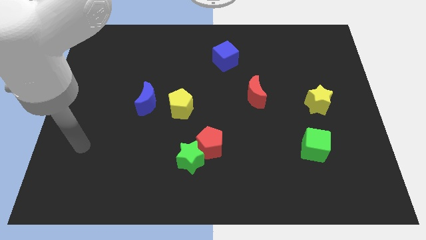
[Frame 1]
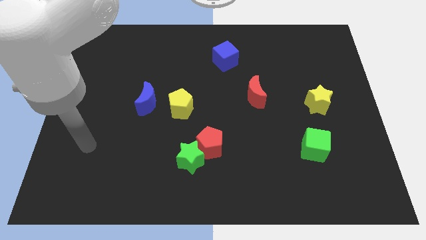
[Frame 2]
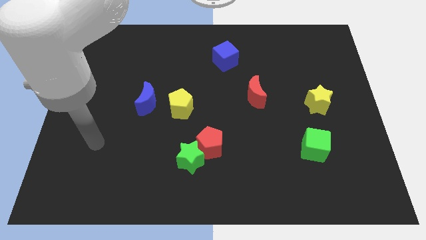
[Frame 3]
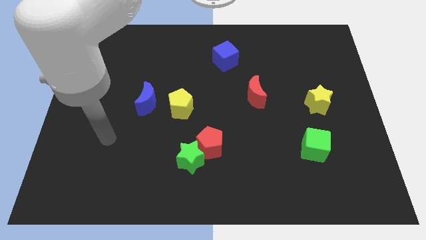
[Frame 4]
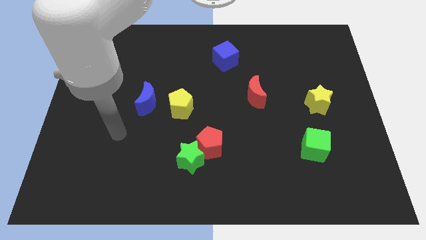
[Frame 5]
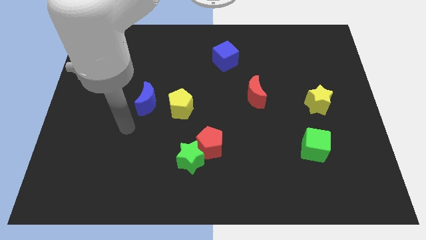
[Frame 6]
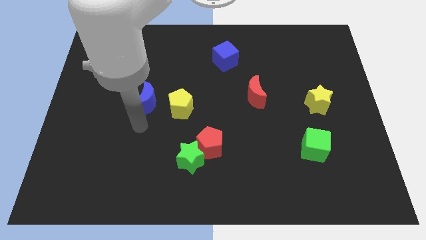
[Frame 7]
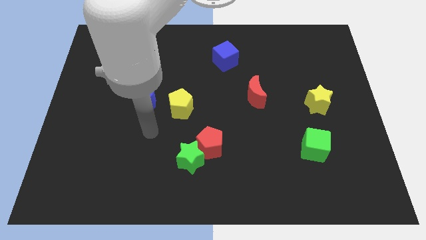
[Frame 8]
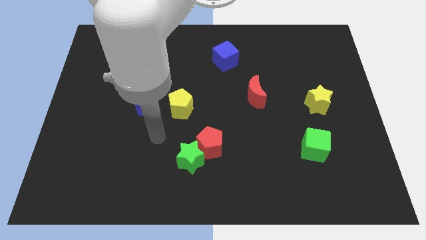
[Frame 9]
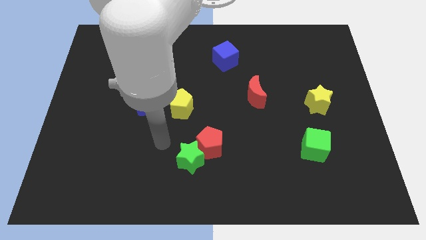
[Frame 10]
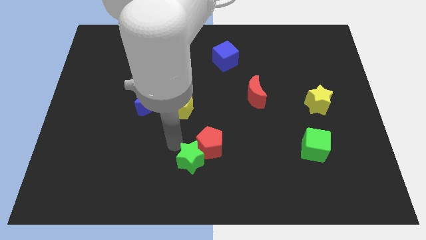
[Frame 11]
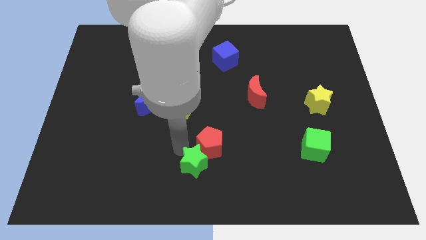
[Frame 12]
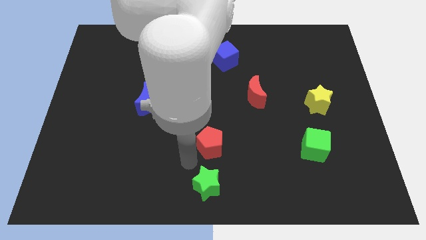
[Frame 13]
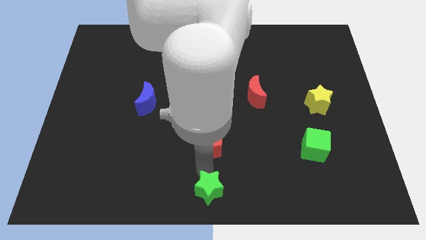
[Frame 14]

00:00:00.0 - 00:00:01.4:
move the red pentagon away from the green star

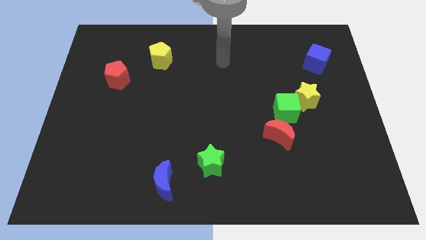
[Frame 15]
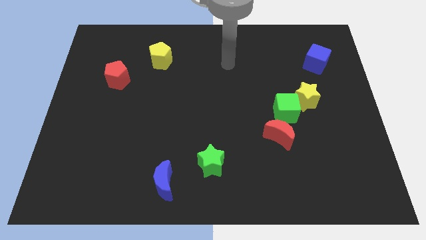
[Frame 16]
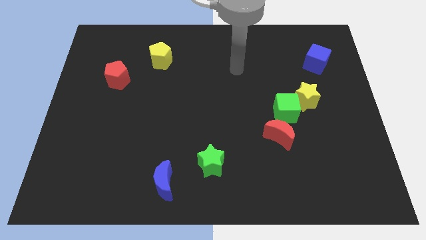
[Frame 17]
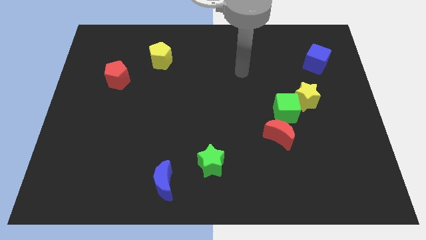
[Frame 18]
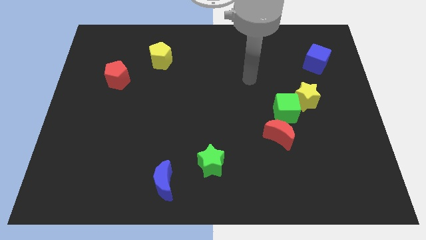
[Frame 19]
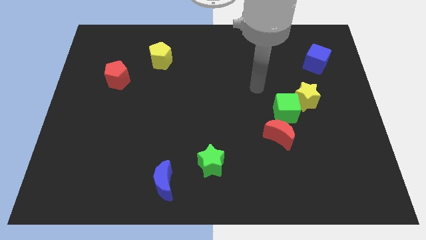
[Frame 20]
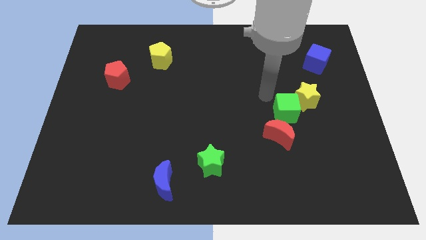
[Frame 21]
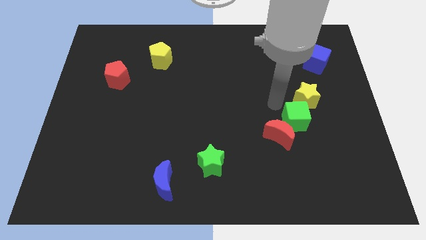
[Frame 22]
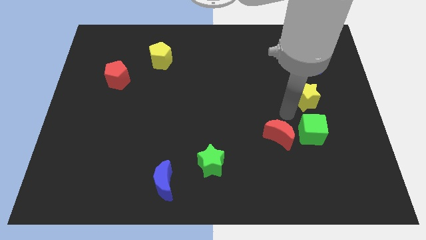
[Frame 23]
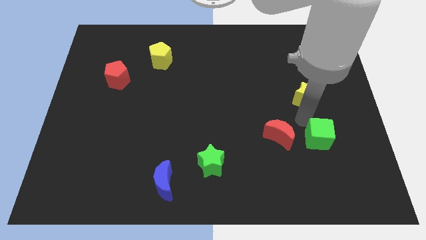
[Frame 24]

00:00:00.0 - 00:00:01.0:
separate the yellow star from the green cube

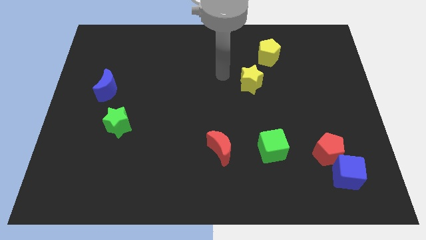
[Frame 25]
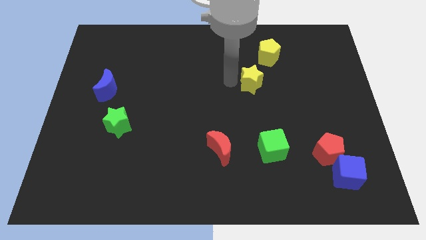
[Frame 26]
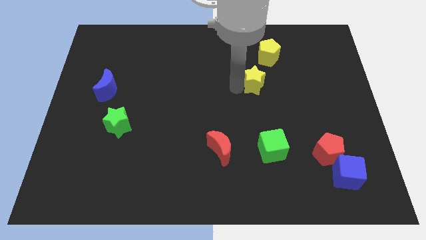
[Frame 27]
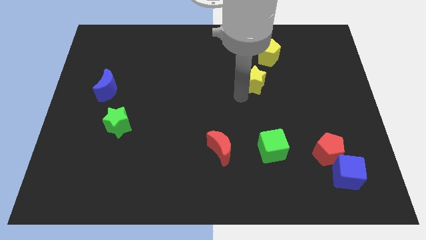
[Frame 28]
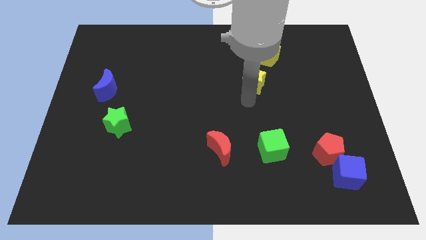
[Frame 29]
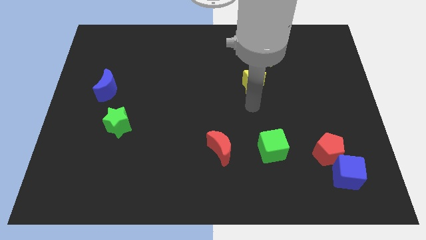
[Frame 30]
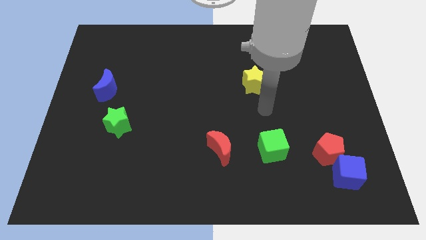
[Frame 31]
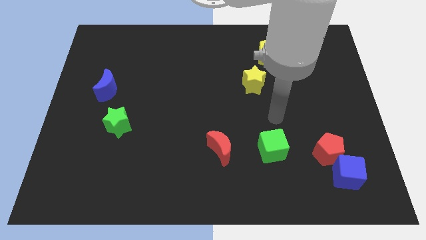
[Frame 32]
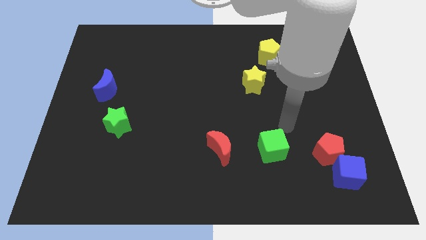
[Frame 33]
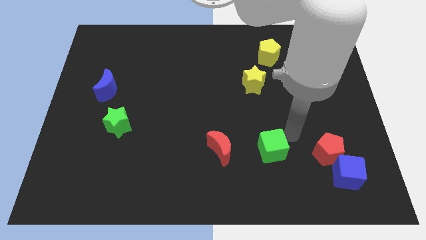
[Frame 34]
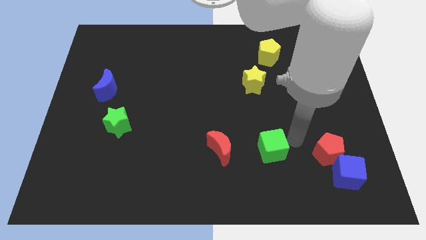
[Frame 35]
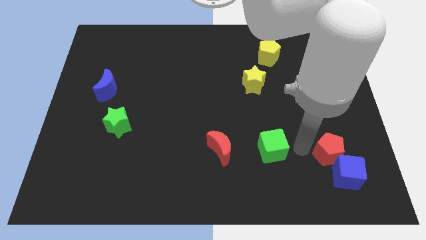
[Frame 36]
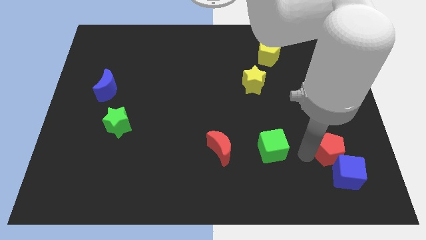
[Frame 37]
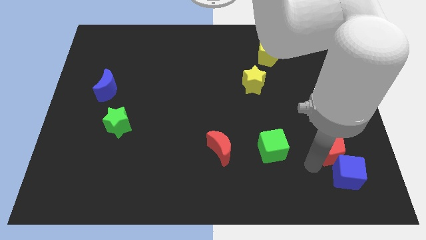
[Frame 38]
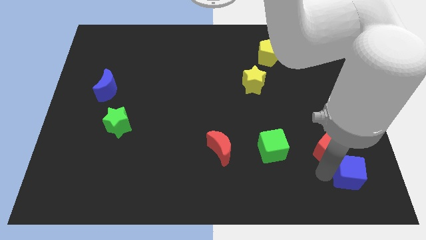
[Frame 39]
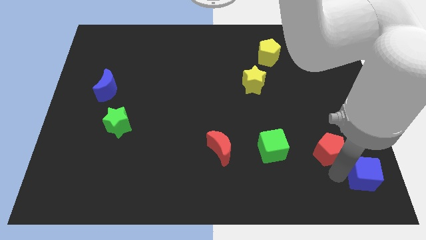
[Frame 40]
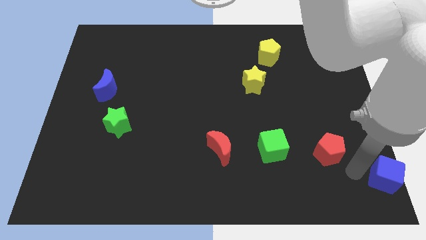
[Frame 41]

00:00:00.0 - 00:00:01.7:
pull the red pentagon apart from the blue cube

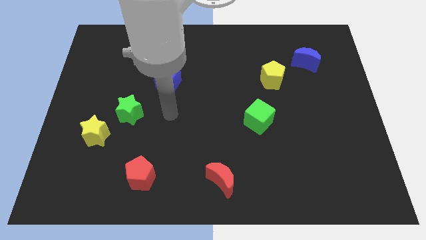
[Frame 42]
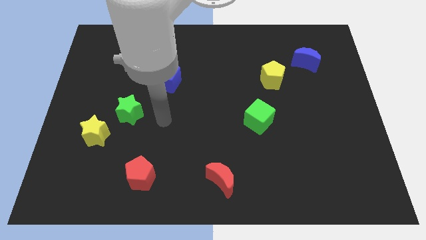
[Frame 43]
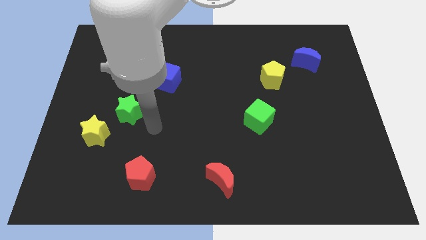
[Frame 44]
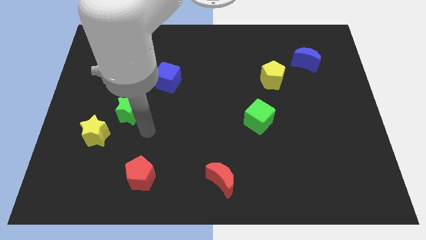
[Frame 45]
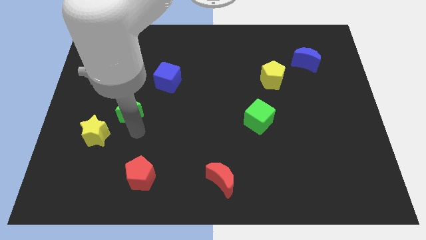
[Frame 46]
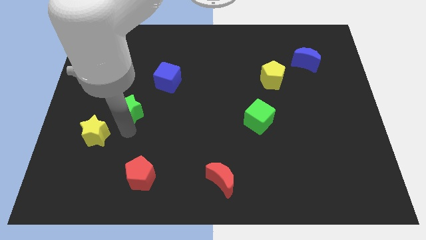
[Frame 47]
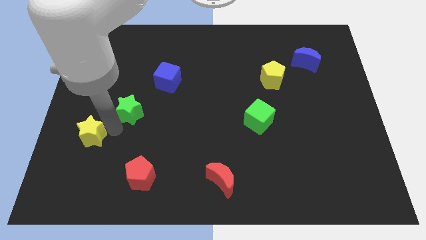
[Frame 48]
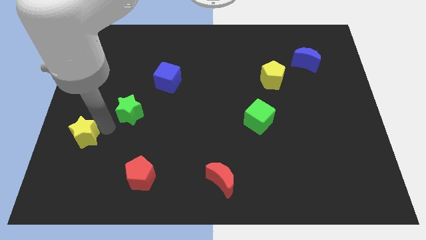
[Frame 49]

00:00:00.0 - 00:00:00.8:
separate the green star from the yellow star

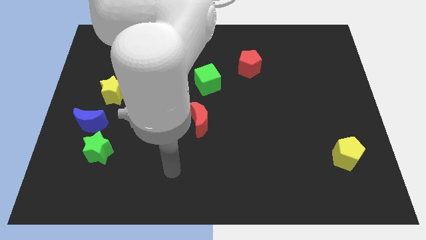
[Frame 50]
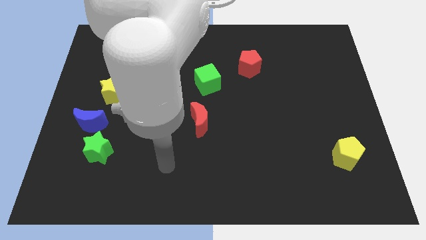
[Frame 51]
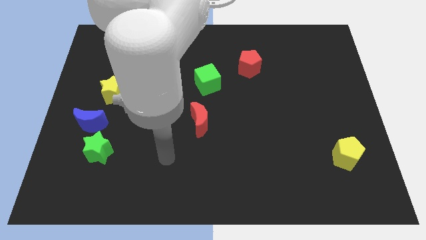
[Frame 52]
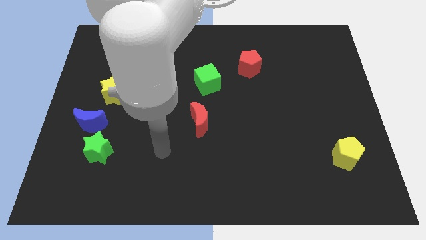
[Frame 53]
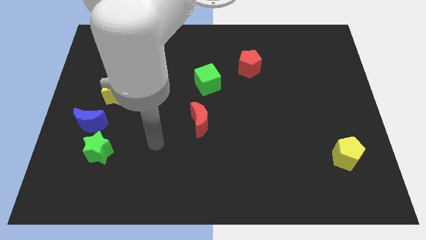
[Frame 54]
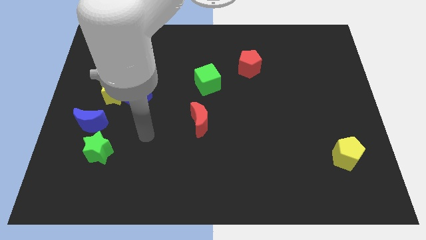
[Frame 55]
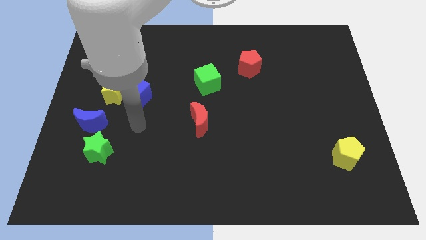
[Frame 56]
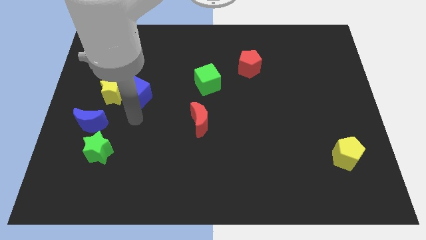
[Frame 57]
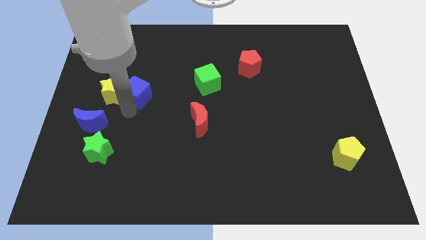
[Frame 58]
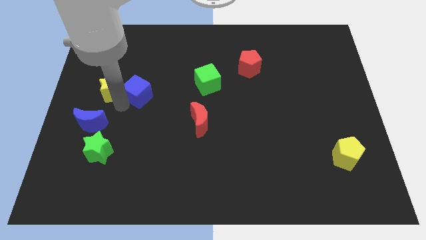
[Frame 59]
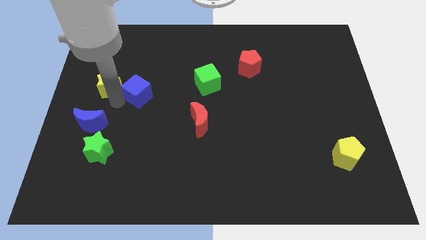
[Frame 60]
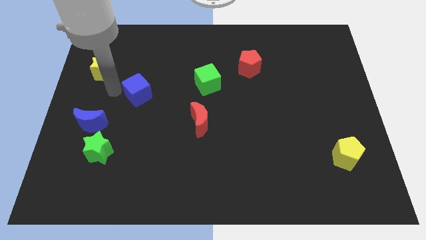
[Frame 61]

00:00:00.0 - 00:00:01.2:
pull the blue cube apart from the yellow star

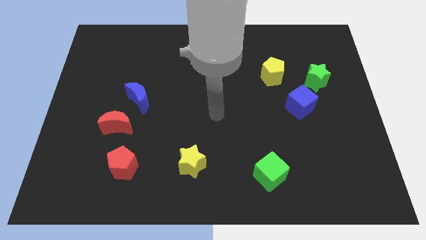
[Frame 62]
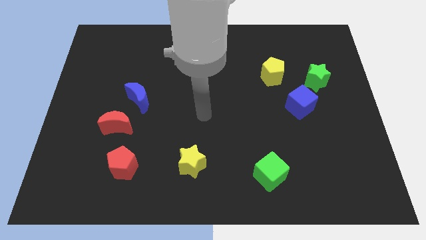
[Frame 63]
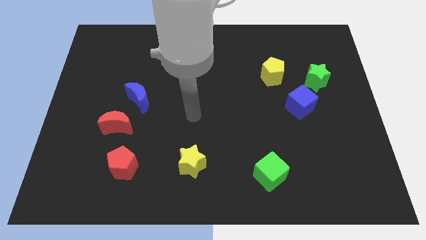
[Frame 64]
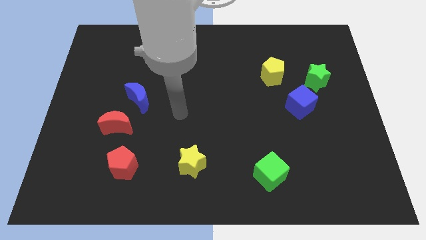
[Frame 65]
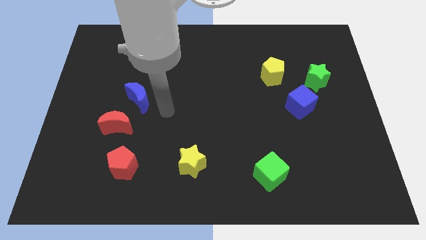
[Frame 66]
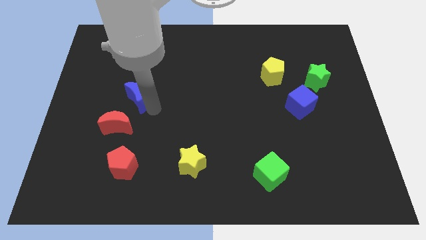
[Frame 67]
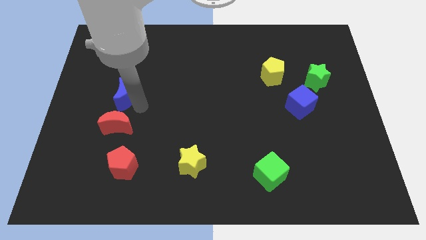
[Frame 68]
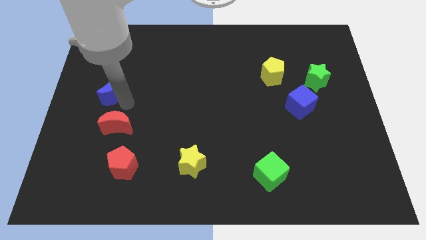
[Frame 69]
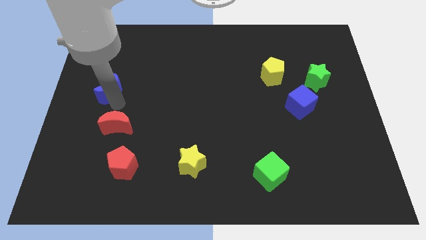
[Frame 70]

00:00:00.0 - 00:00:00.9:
pull the red moon apart from the blue moon

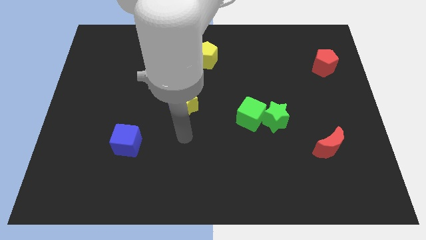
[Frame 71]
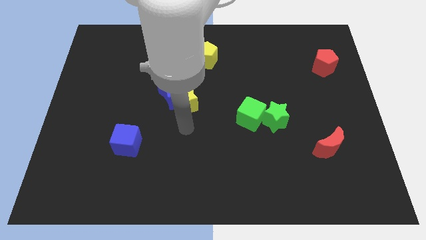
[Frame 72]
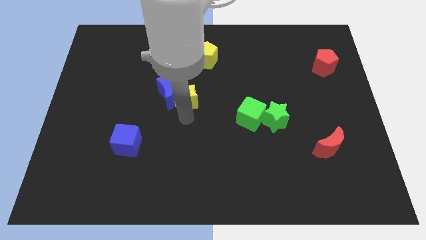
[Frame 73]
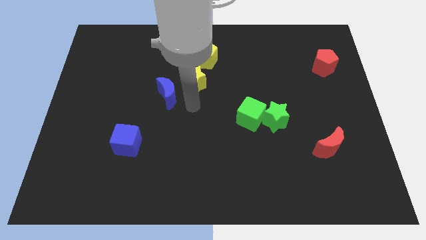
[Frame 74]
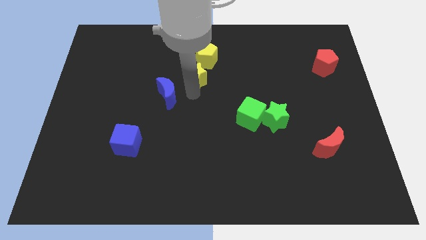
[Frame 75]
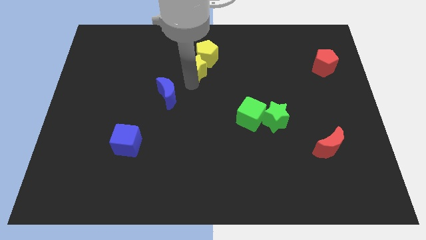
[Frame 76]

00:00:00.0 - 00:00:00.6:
move the blue moon away from the yellow star

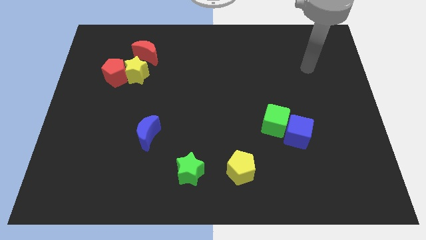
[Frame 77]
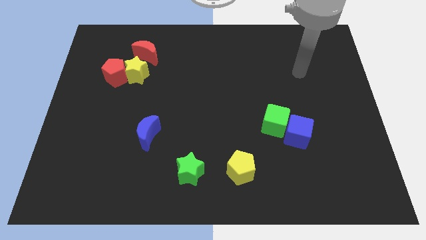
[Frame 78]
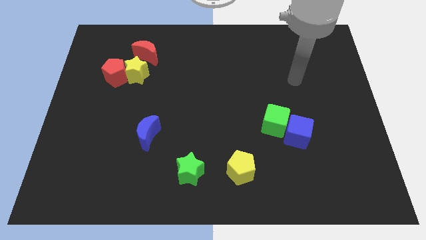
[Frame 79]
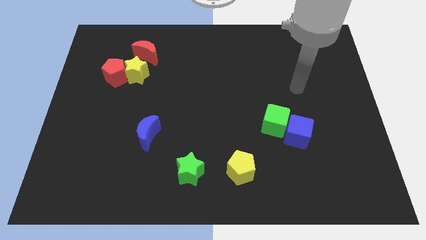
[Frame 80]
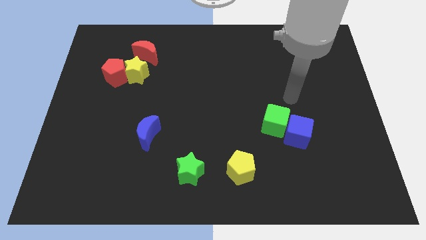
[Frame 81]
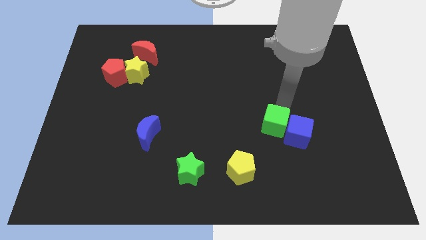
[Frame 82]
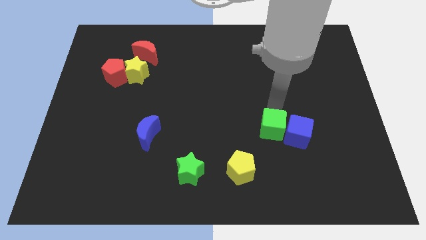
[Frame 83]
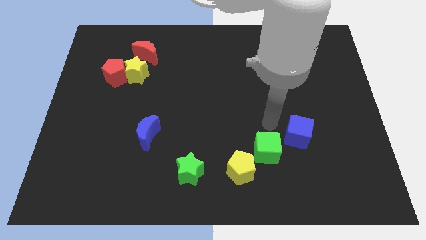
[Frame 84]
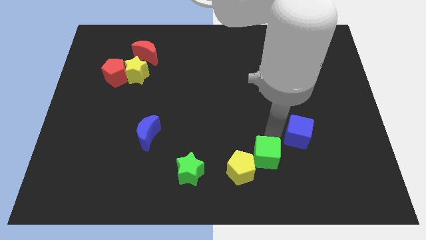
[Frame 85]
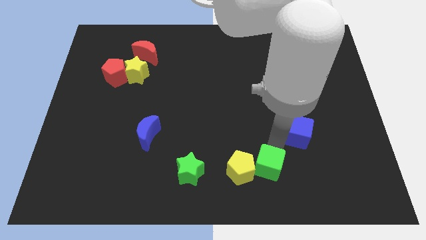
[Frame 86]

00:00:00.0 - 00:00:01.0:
move the blue cube away from the green cube

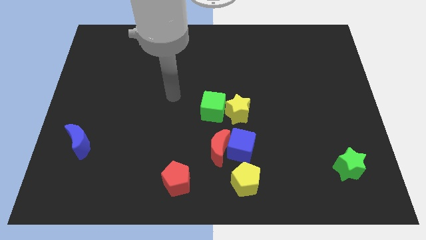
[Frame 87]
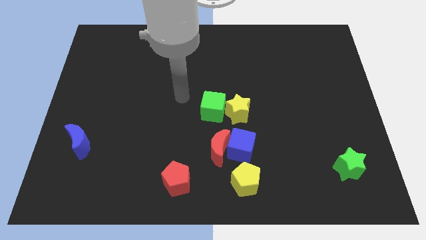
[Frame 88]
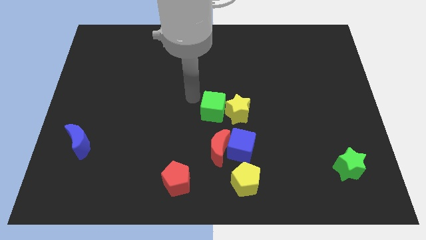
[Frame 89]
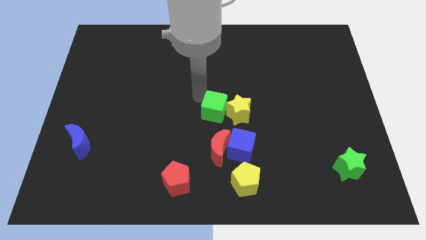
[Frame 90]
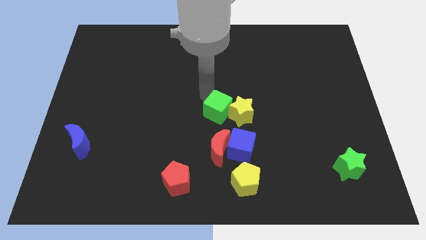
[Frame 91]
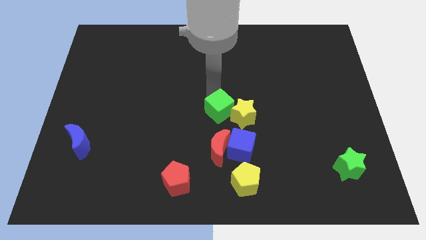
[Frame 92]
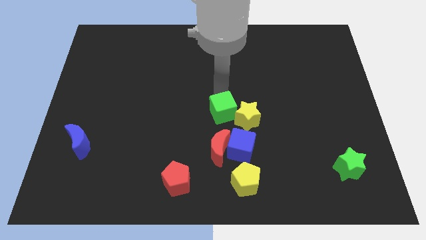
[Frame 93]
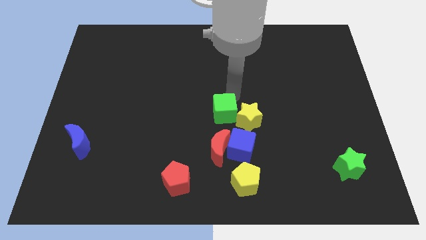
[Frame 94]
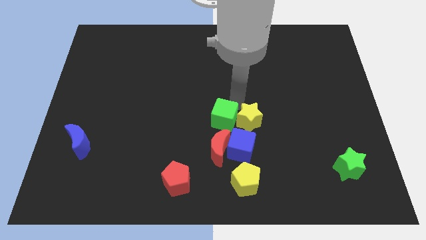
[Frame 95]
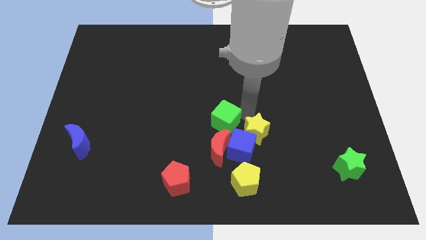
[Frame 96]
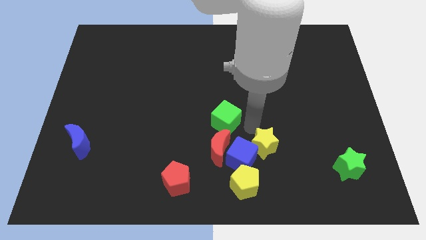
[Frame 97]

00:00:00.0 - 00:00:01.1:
separate the green cube from the yellow star
